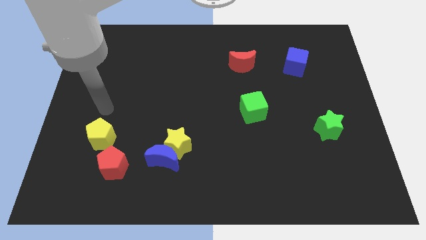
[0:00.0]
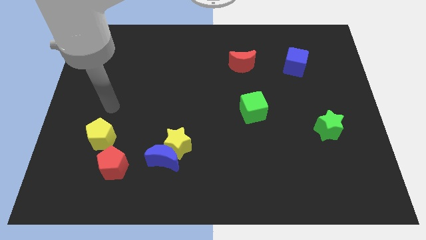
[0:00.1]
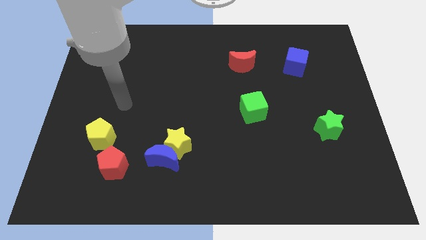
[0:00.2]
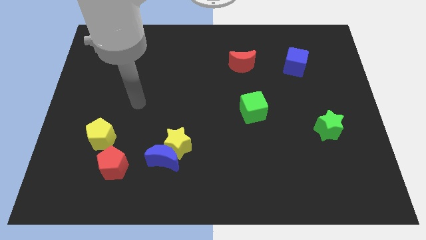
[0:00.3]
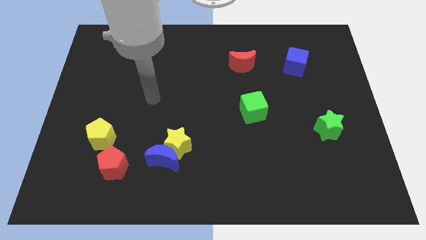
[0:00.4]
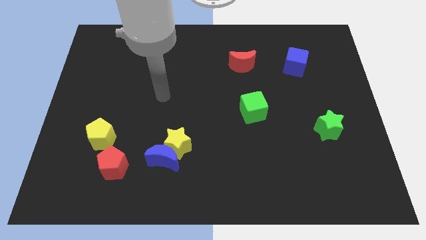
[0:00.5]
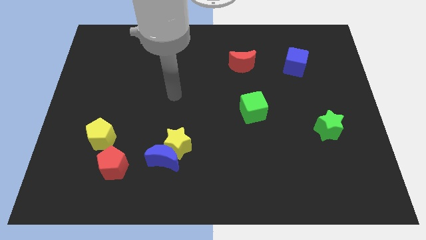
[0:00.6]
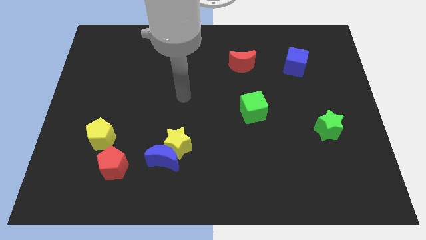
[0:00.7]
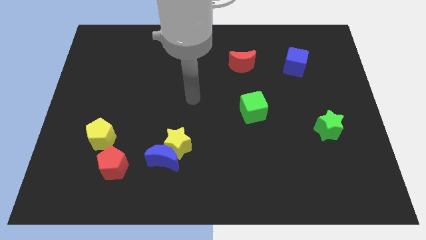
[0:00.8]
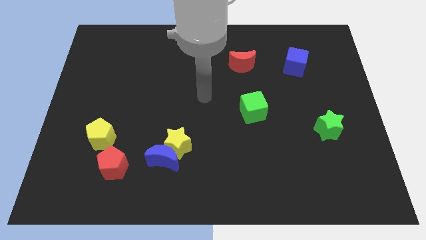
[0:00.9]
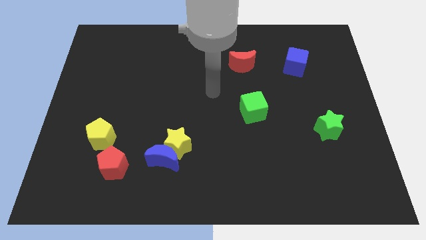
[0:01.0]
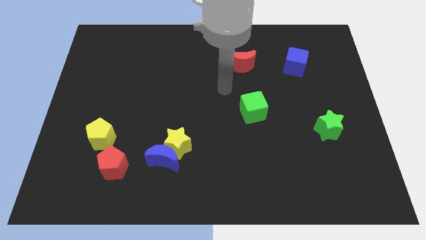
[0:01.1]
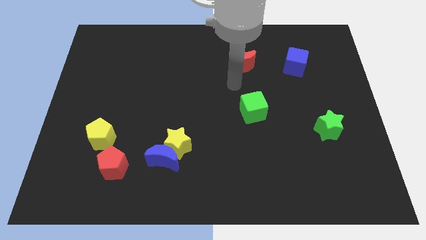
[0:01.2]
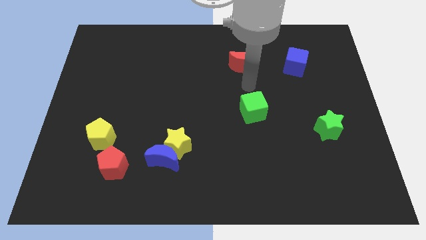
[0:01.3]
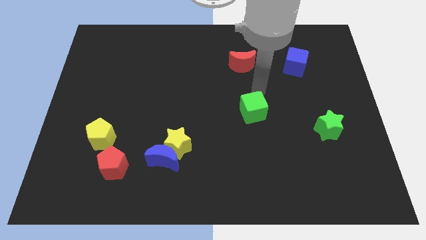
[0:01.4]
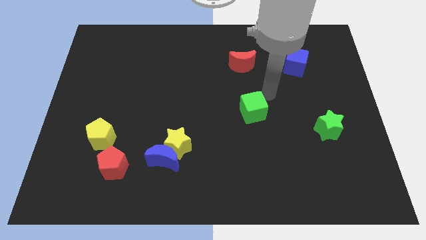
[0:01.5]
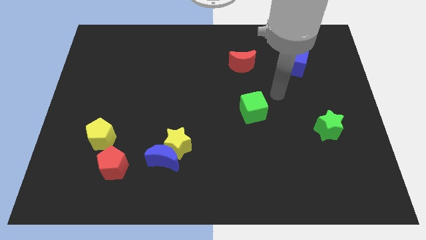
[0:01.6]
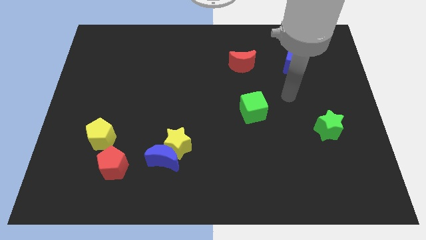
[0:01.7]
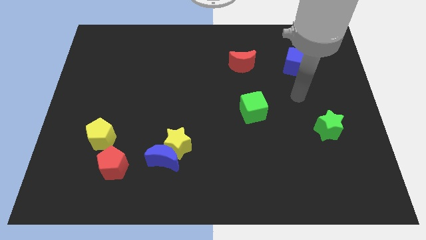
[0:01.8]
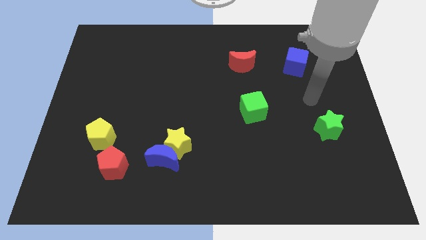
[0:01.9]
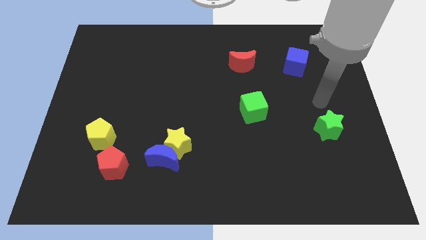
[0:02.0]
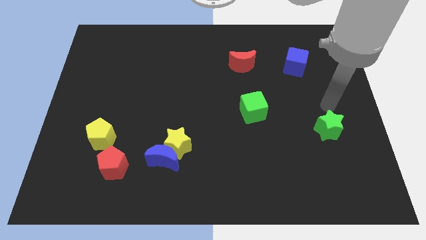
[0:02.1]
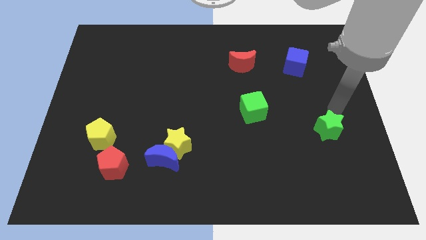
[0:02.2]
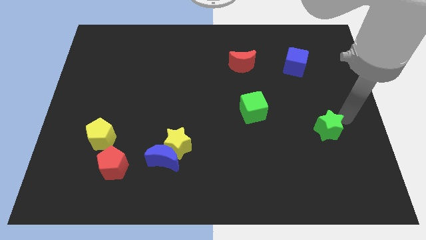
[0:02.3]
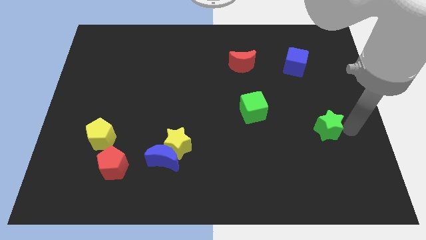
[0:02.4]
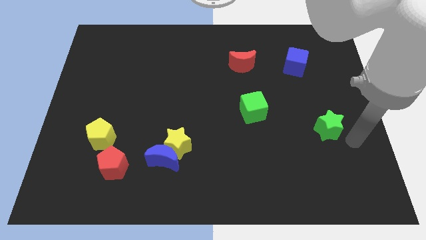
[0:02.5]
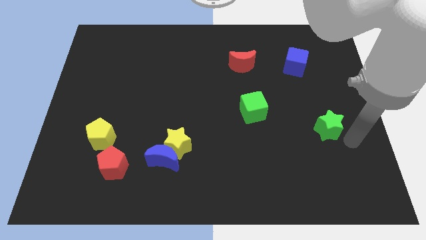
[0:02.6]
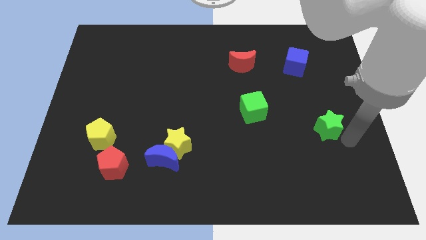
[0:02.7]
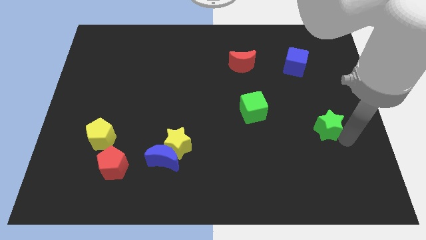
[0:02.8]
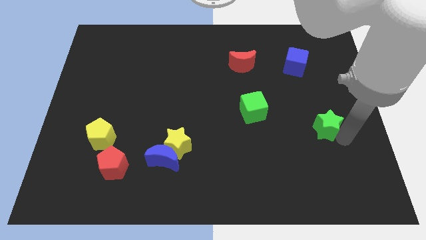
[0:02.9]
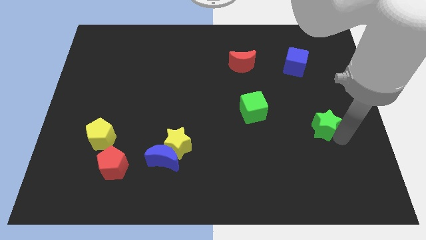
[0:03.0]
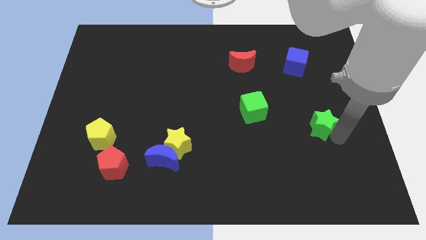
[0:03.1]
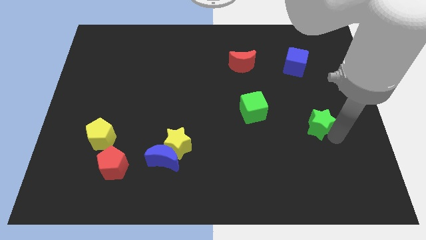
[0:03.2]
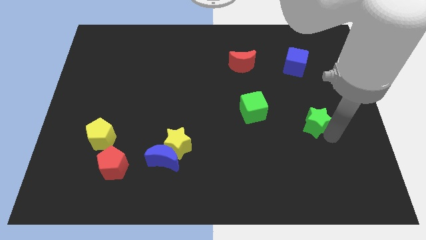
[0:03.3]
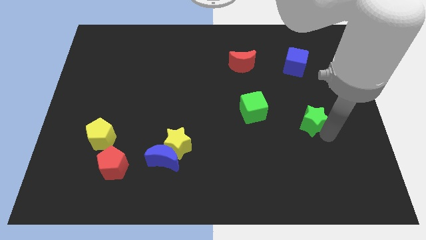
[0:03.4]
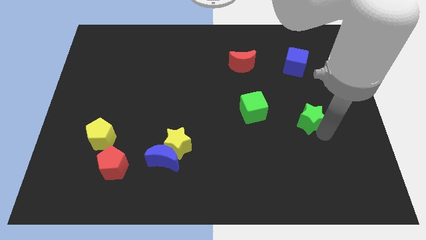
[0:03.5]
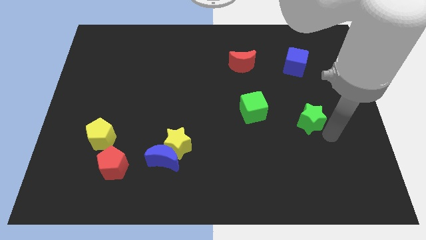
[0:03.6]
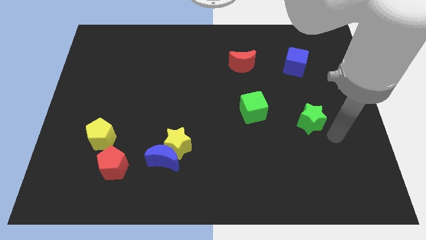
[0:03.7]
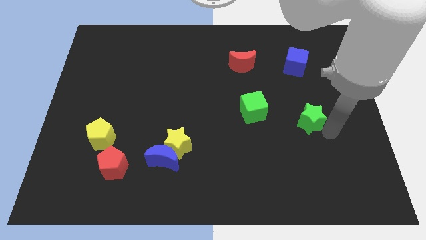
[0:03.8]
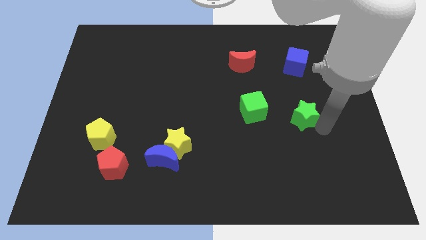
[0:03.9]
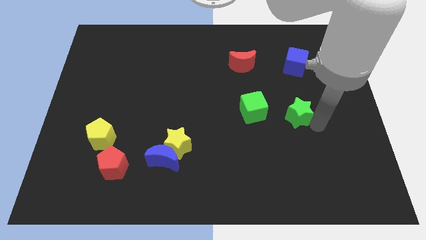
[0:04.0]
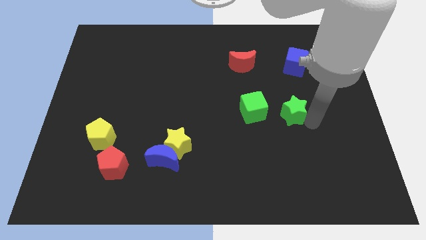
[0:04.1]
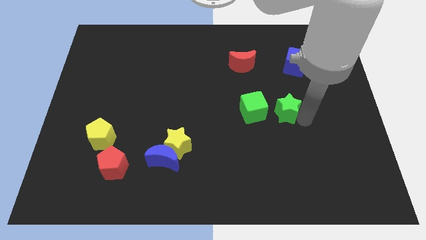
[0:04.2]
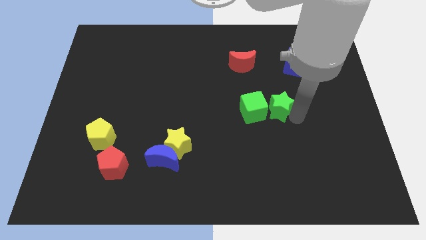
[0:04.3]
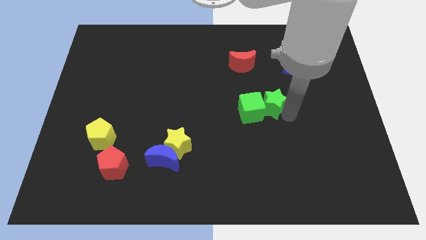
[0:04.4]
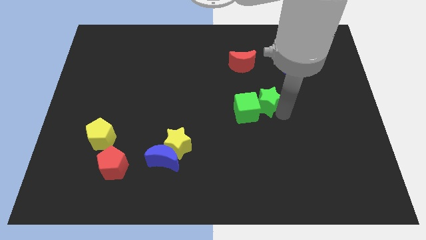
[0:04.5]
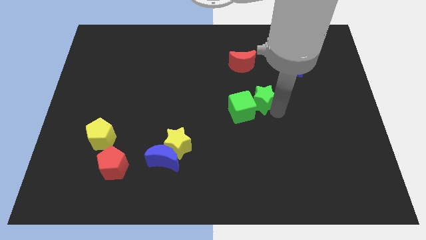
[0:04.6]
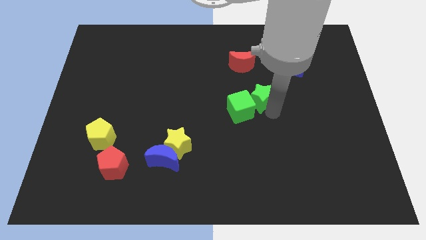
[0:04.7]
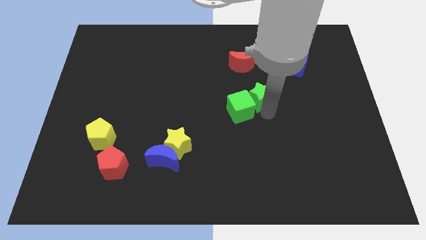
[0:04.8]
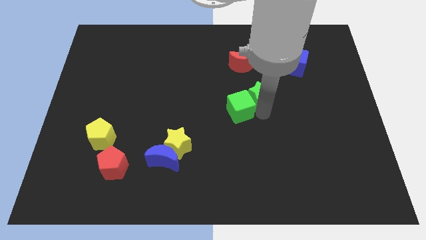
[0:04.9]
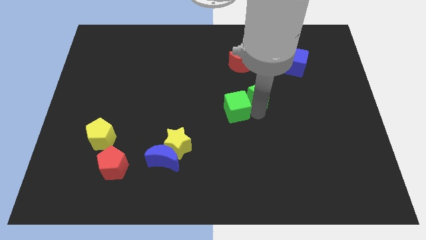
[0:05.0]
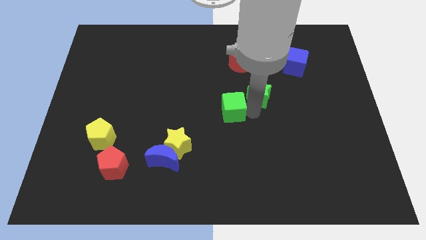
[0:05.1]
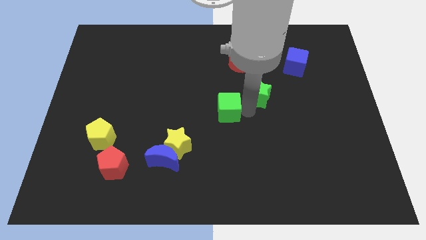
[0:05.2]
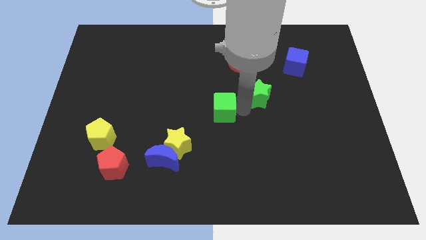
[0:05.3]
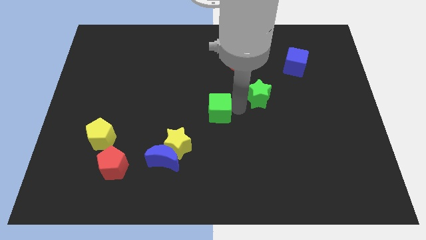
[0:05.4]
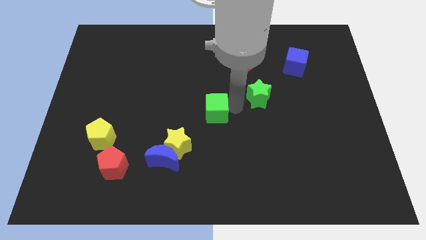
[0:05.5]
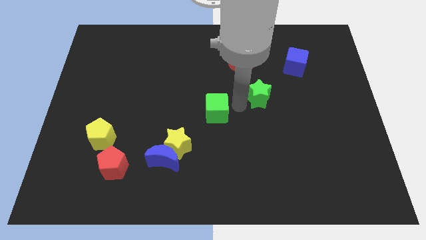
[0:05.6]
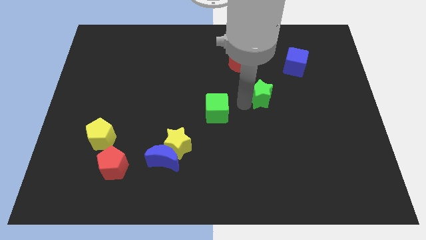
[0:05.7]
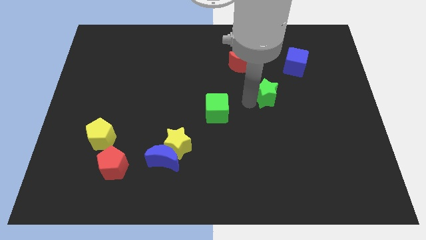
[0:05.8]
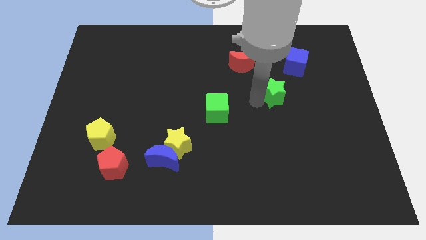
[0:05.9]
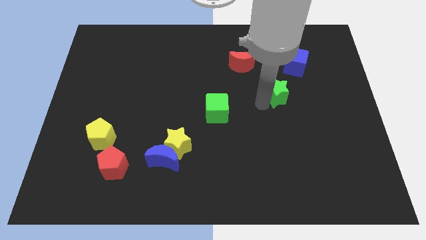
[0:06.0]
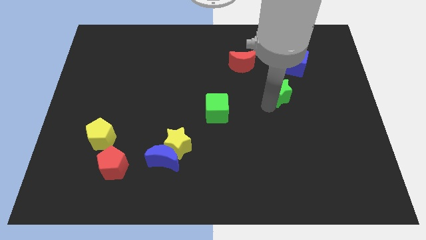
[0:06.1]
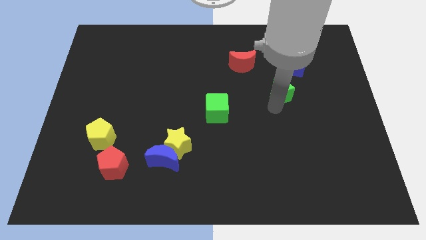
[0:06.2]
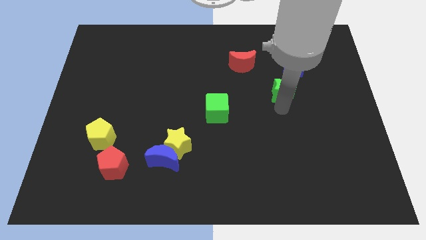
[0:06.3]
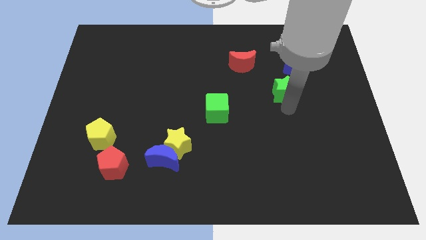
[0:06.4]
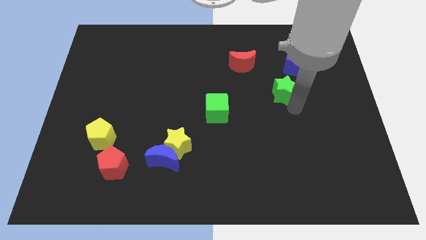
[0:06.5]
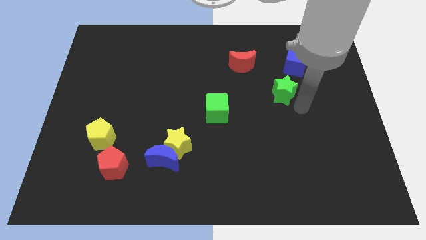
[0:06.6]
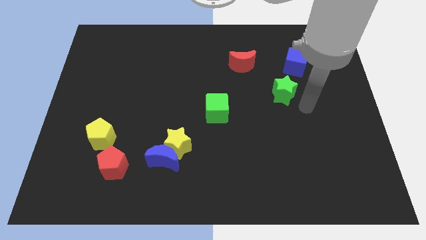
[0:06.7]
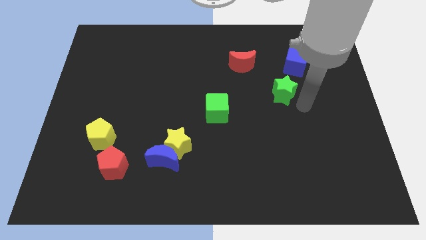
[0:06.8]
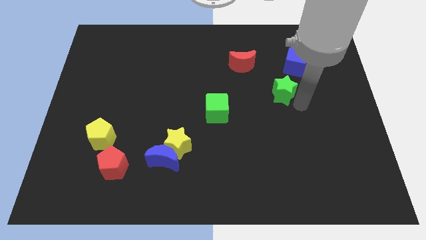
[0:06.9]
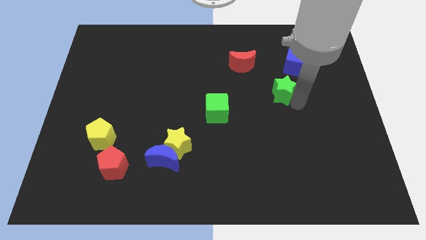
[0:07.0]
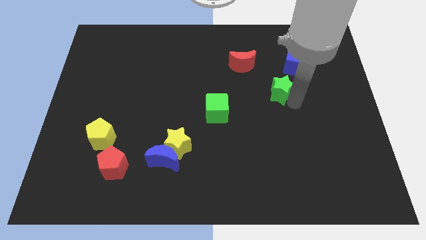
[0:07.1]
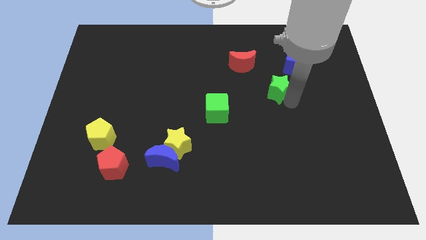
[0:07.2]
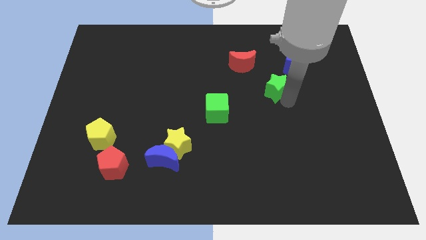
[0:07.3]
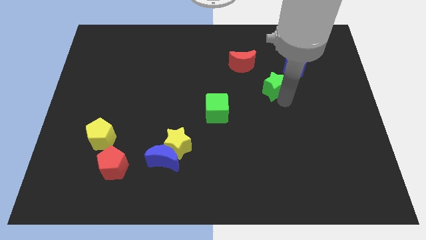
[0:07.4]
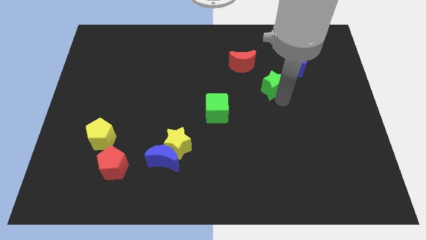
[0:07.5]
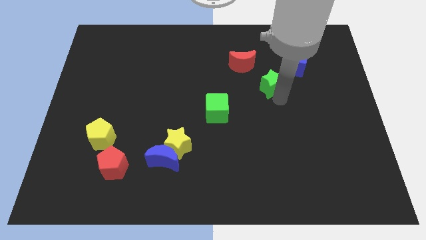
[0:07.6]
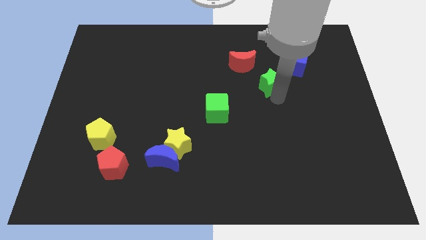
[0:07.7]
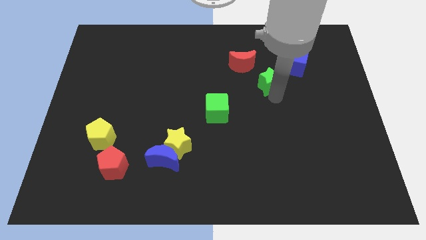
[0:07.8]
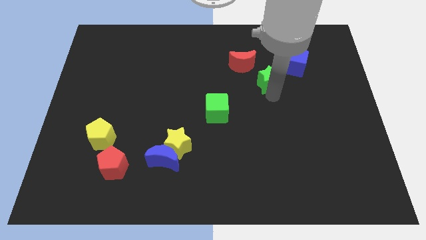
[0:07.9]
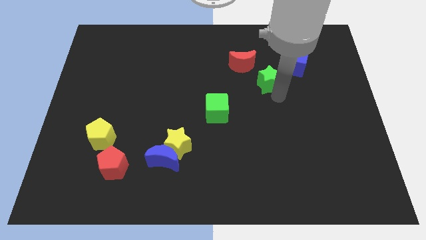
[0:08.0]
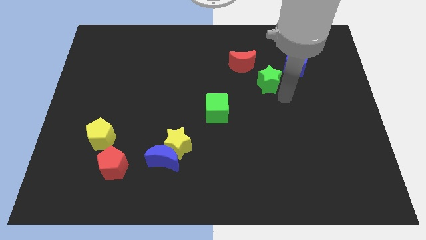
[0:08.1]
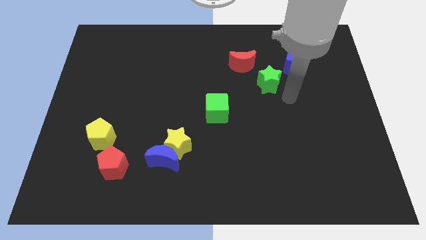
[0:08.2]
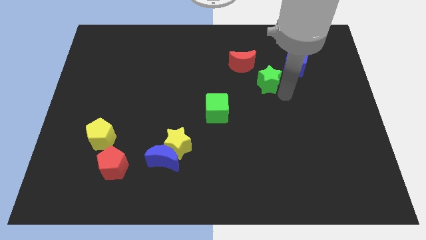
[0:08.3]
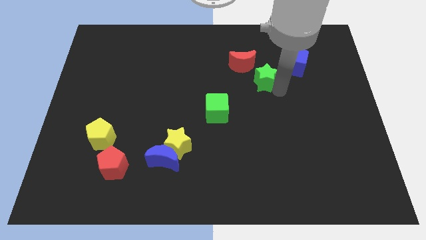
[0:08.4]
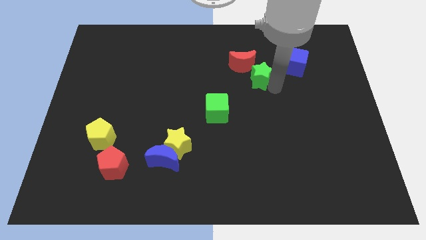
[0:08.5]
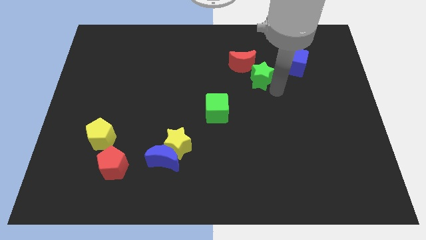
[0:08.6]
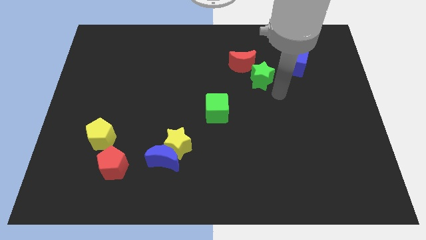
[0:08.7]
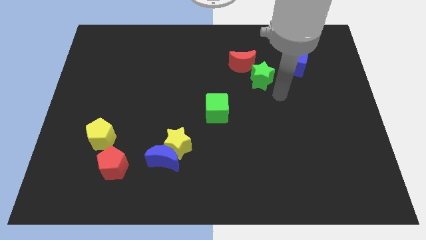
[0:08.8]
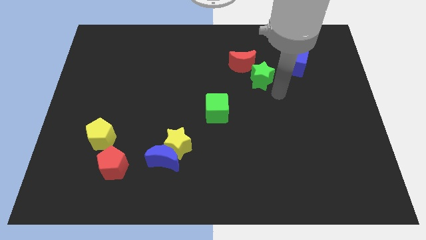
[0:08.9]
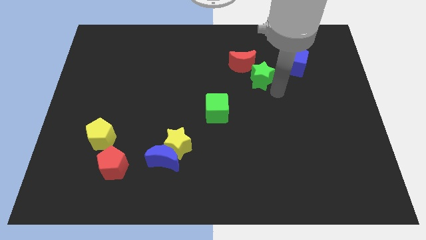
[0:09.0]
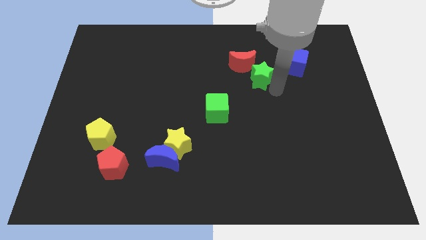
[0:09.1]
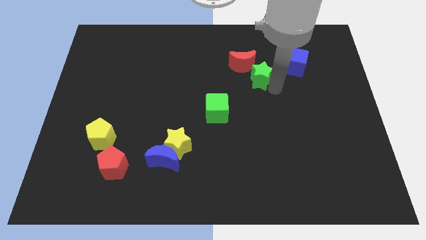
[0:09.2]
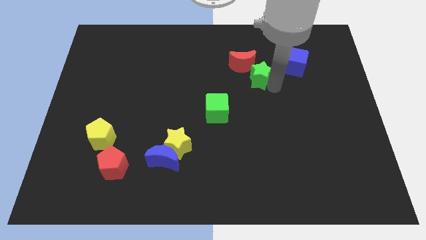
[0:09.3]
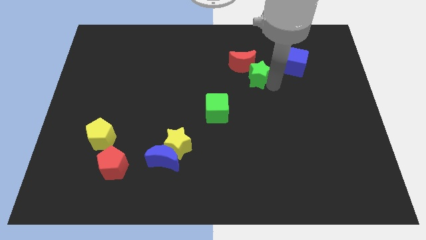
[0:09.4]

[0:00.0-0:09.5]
put the green star next to the red moon
